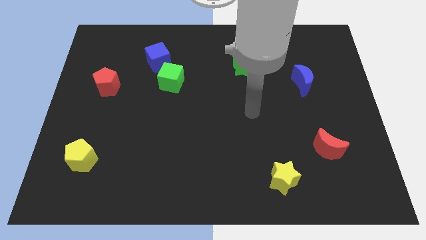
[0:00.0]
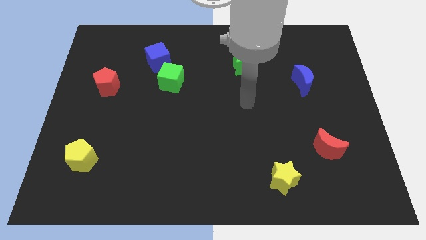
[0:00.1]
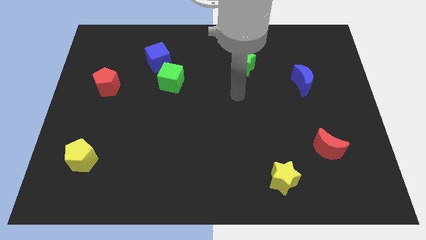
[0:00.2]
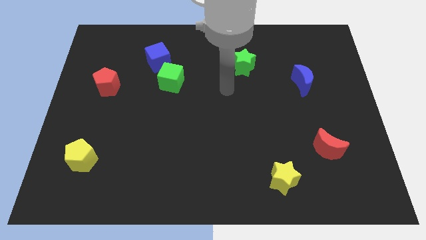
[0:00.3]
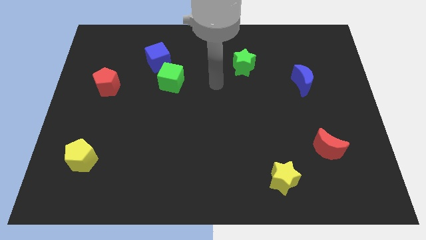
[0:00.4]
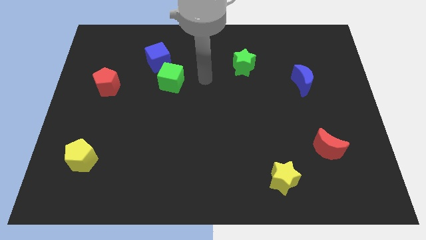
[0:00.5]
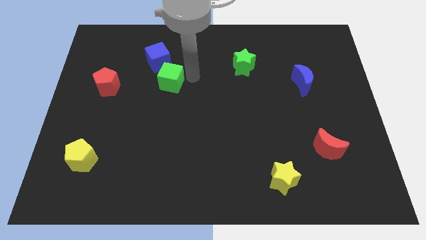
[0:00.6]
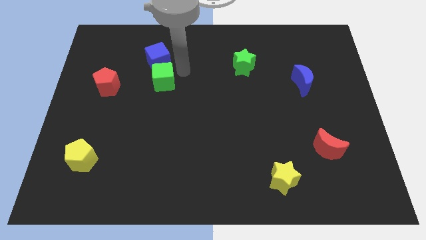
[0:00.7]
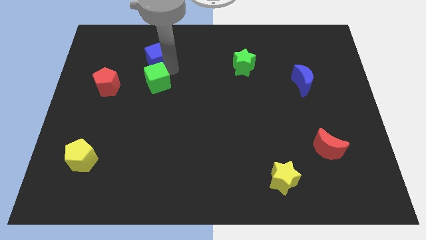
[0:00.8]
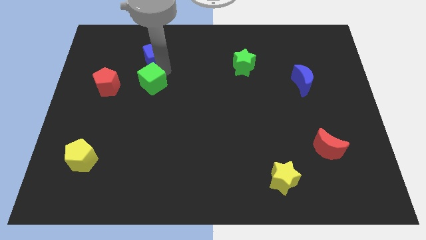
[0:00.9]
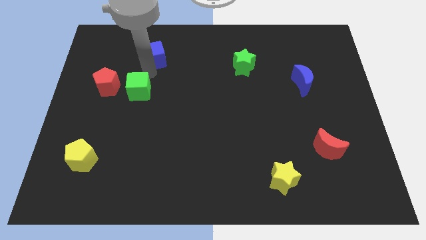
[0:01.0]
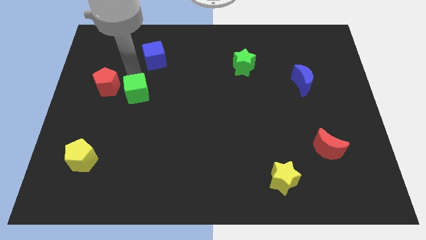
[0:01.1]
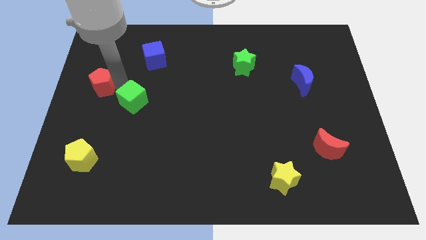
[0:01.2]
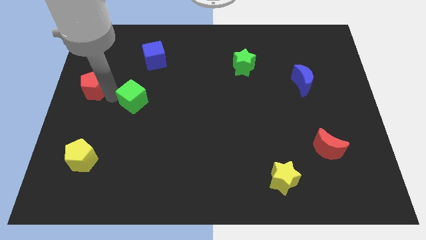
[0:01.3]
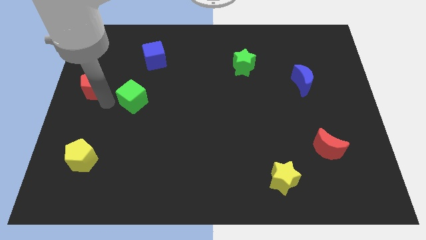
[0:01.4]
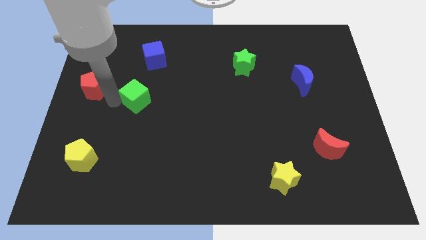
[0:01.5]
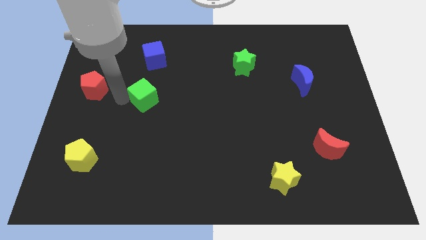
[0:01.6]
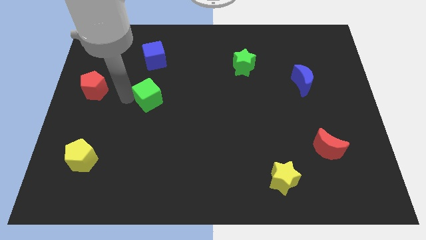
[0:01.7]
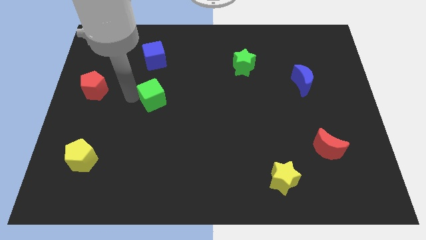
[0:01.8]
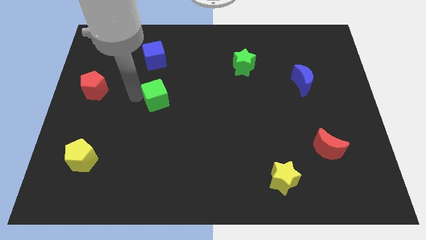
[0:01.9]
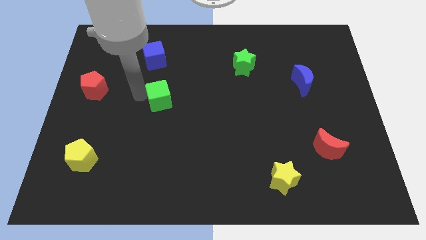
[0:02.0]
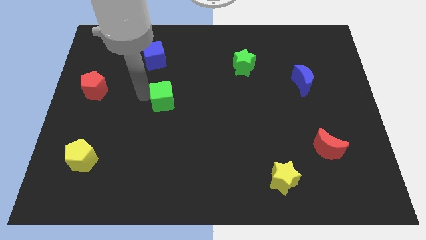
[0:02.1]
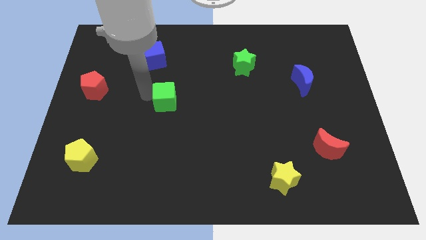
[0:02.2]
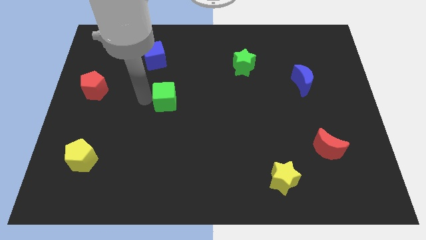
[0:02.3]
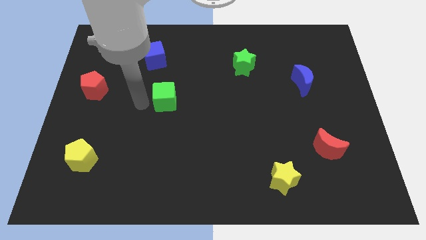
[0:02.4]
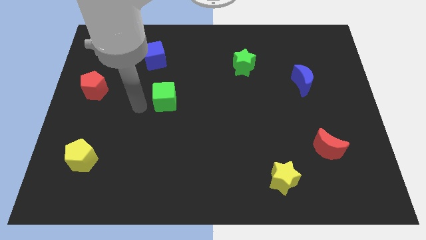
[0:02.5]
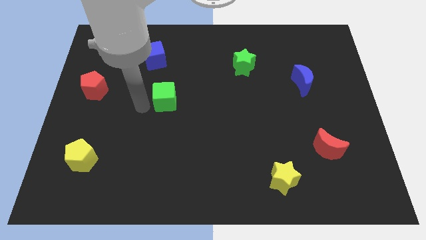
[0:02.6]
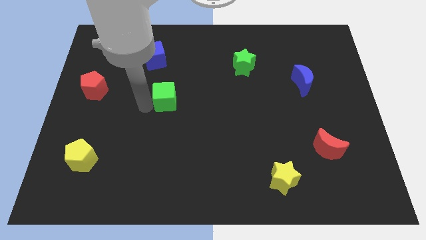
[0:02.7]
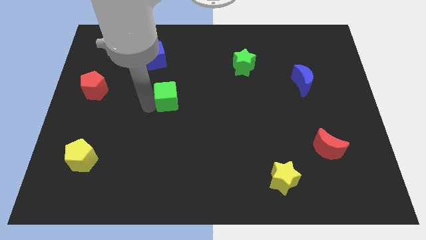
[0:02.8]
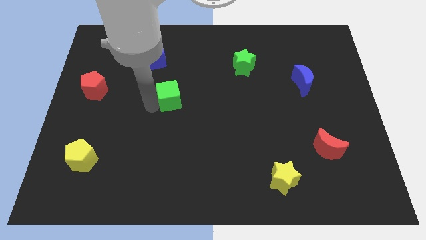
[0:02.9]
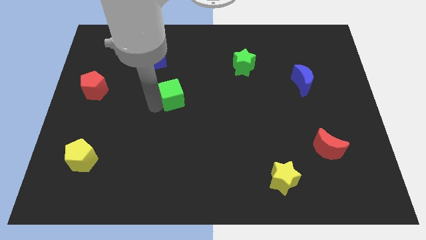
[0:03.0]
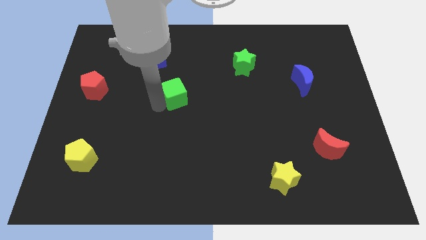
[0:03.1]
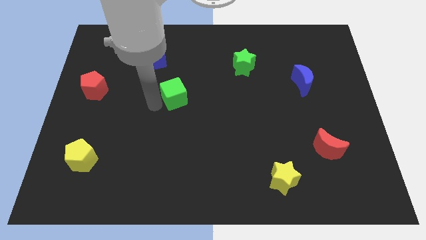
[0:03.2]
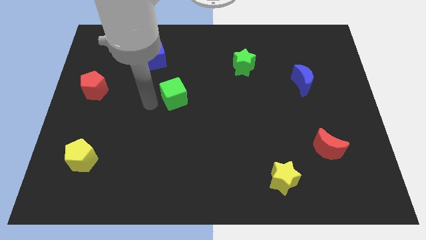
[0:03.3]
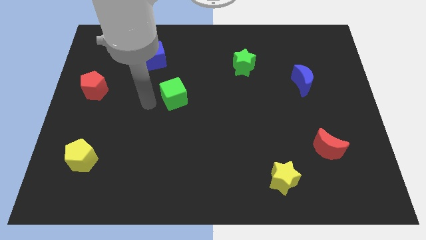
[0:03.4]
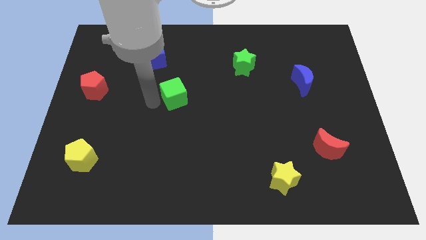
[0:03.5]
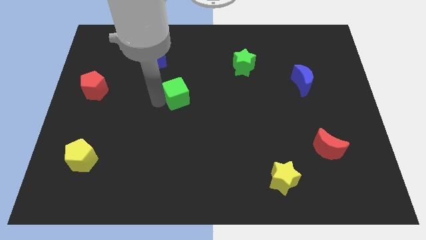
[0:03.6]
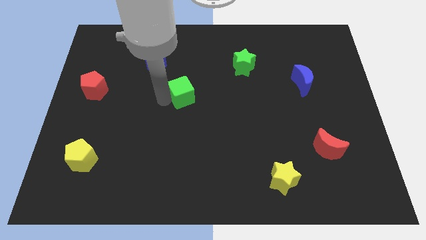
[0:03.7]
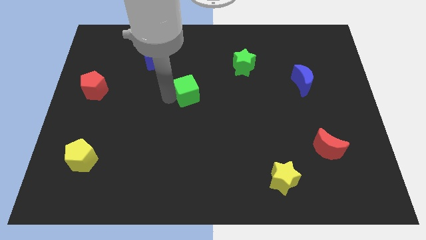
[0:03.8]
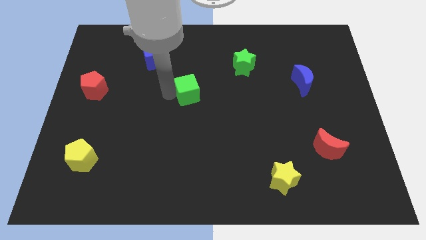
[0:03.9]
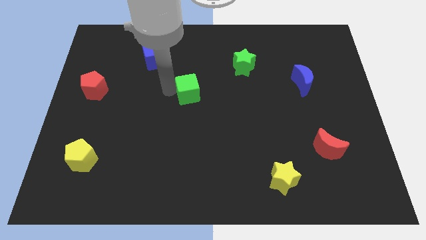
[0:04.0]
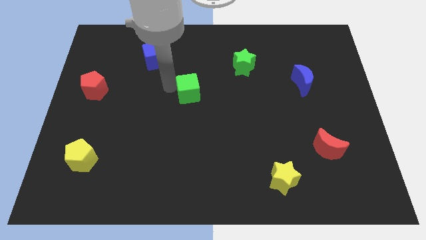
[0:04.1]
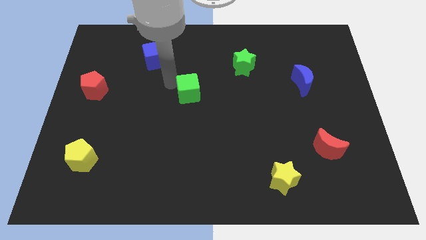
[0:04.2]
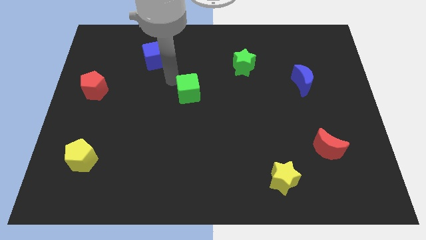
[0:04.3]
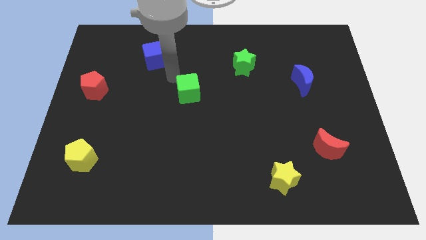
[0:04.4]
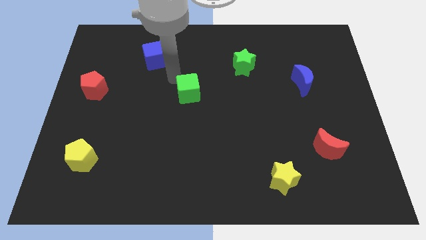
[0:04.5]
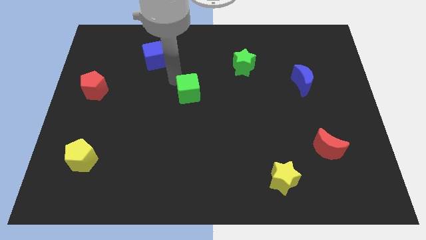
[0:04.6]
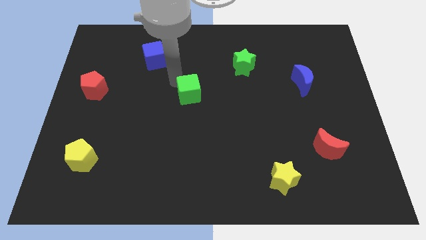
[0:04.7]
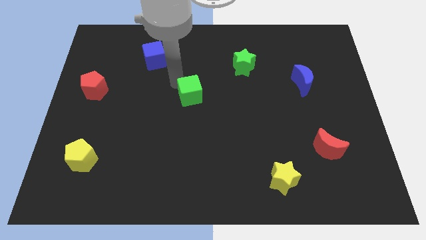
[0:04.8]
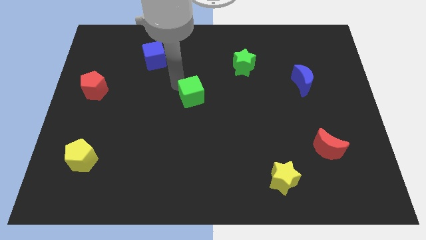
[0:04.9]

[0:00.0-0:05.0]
move the green cube downwards and to the right a bit

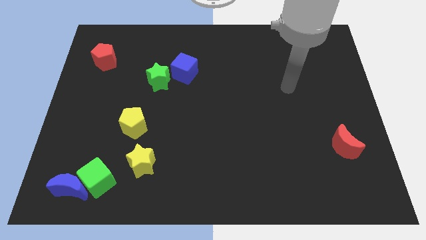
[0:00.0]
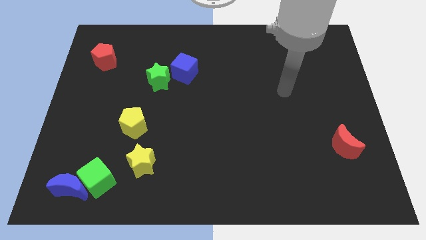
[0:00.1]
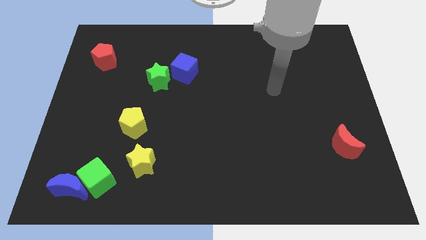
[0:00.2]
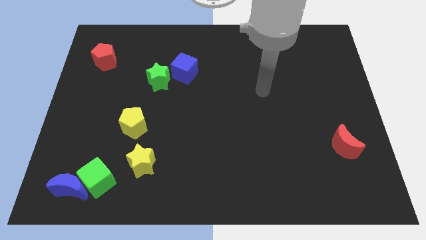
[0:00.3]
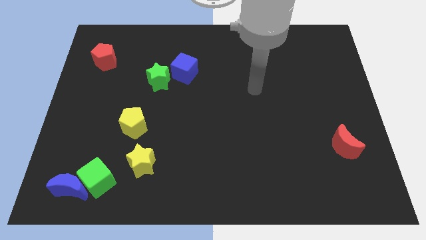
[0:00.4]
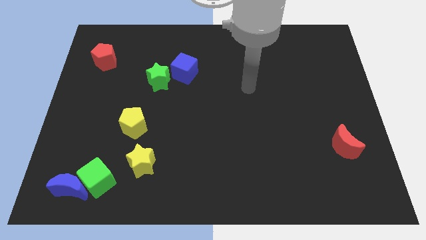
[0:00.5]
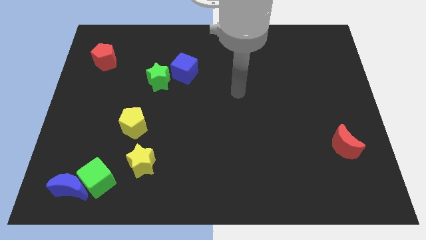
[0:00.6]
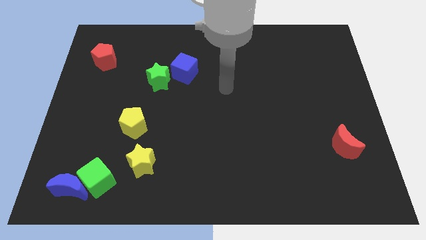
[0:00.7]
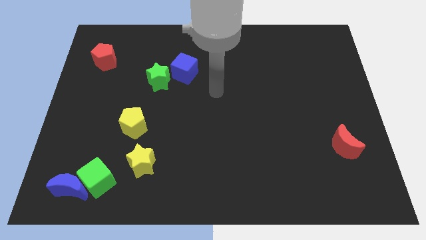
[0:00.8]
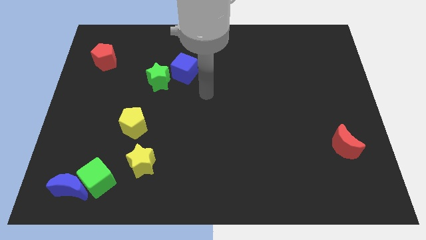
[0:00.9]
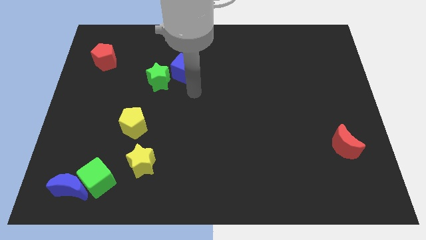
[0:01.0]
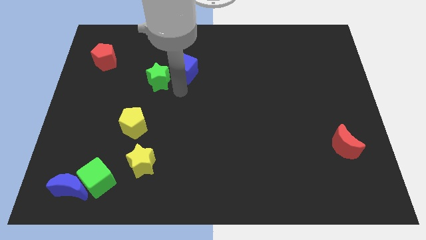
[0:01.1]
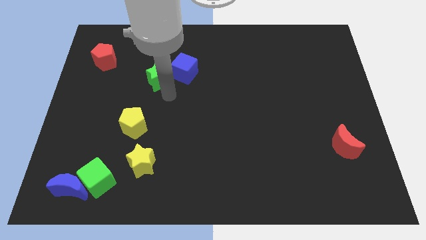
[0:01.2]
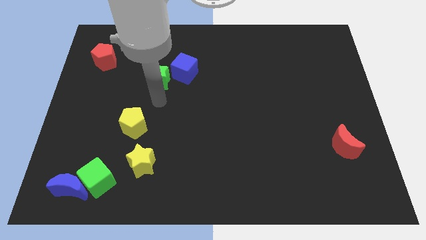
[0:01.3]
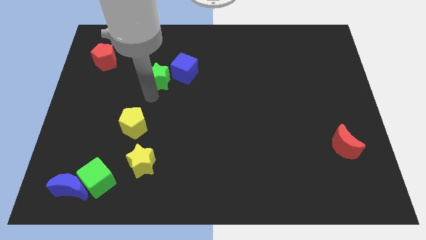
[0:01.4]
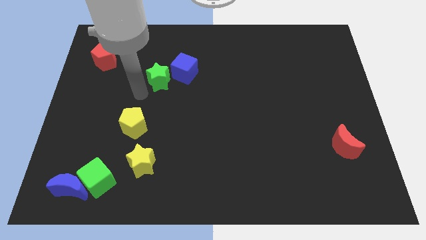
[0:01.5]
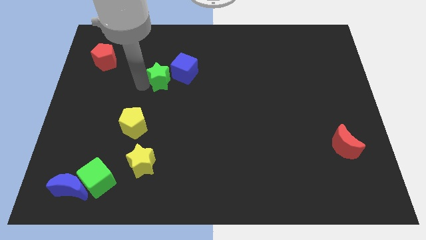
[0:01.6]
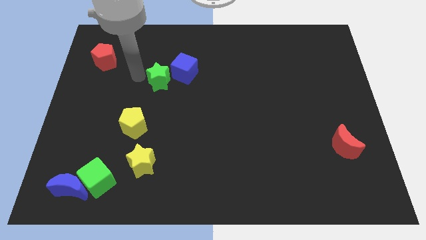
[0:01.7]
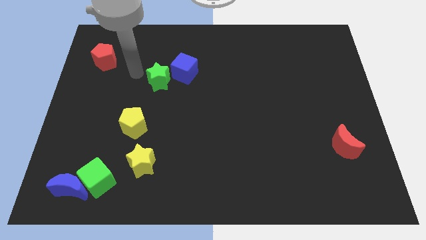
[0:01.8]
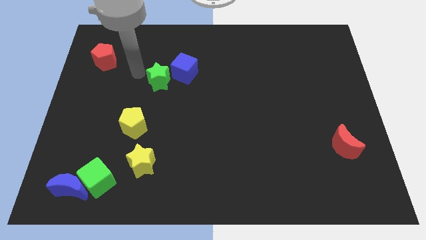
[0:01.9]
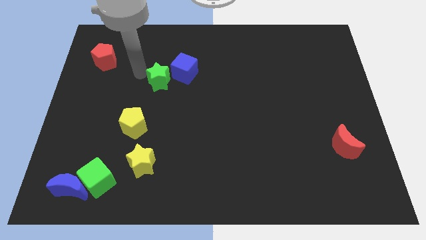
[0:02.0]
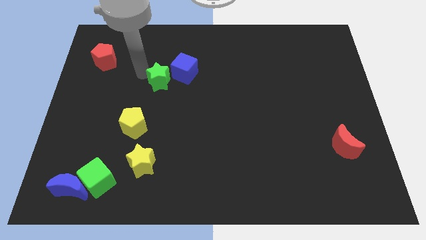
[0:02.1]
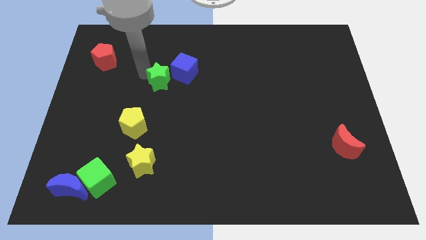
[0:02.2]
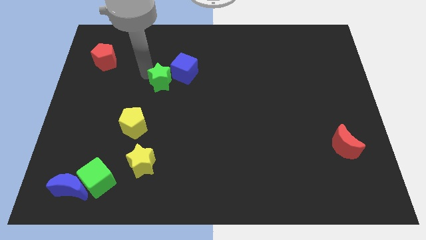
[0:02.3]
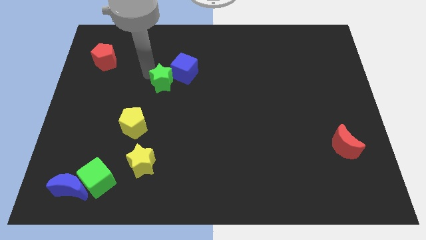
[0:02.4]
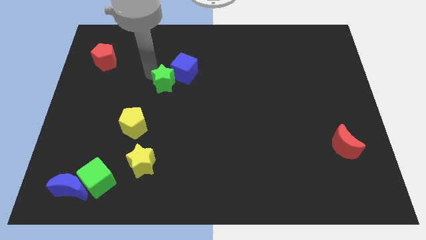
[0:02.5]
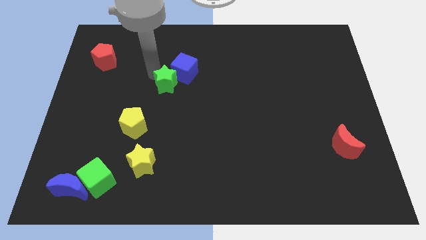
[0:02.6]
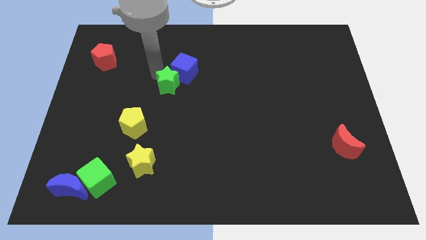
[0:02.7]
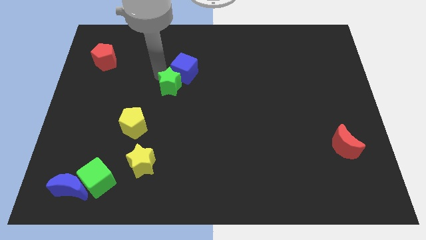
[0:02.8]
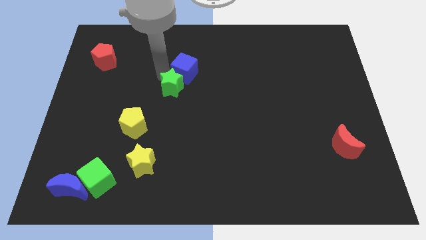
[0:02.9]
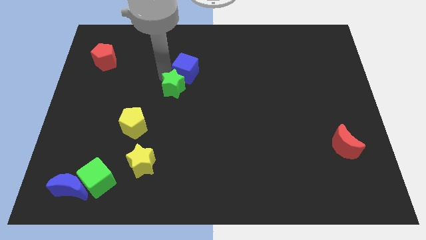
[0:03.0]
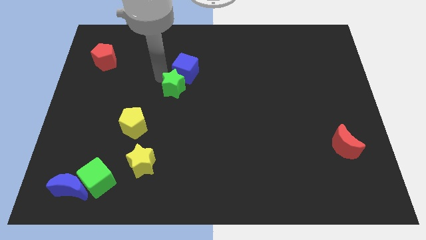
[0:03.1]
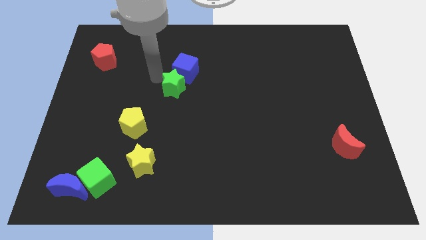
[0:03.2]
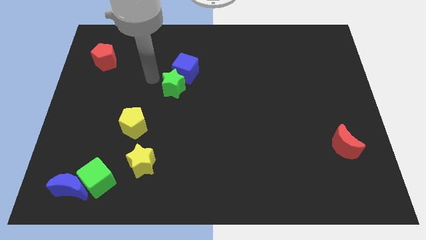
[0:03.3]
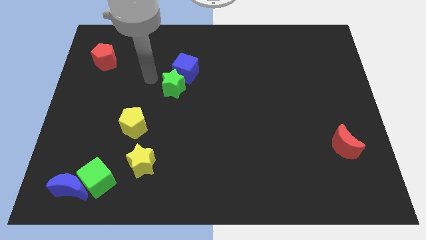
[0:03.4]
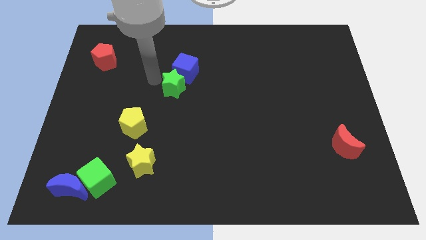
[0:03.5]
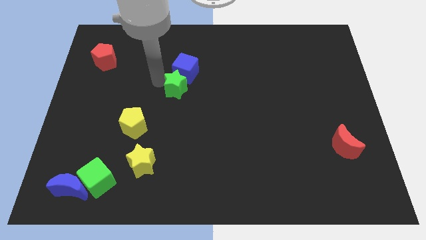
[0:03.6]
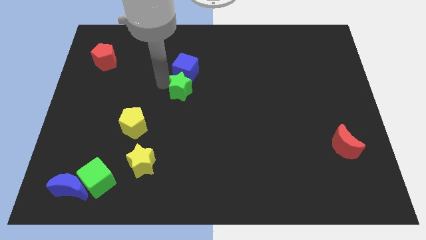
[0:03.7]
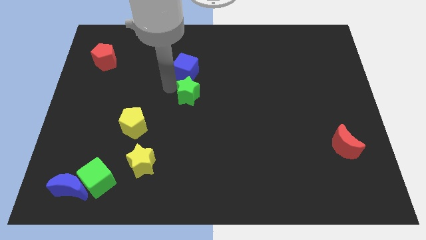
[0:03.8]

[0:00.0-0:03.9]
slide the green star to the right a bit
